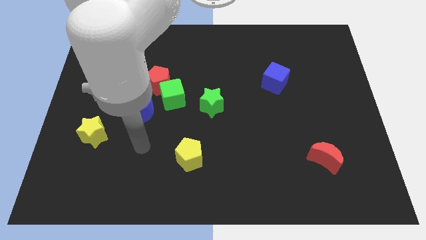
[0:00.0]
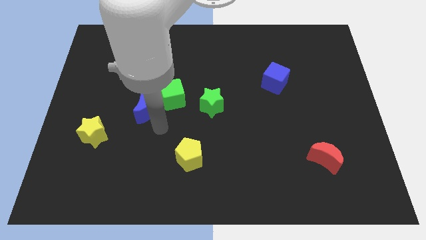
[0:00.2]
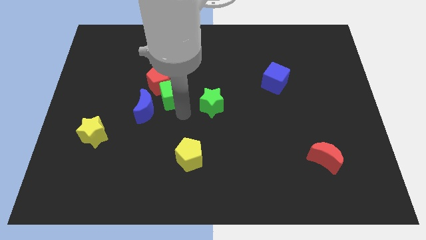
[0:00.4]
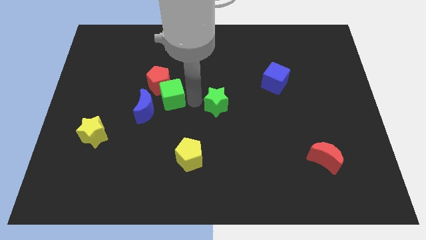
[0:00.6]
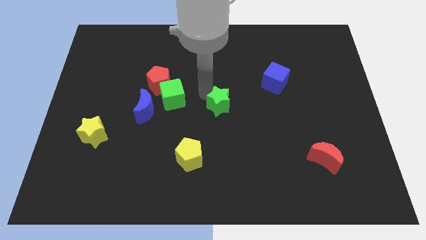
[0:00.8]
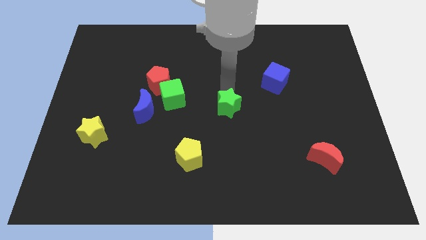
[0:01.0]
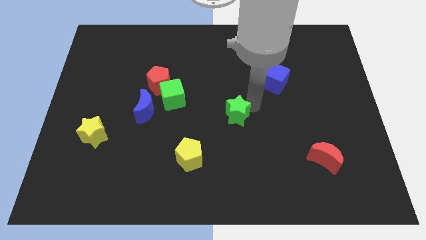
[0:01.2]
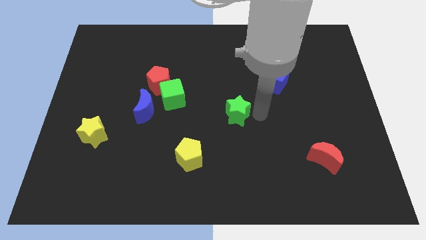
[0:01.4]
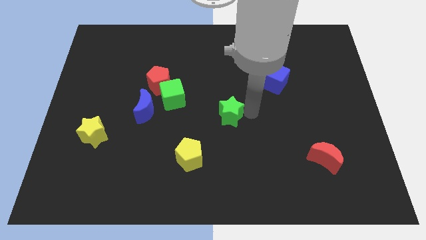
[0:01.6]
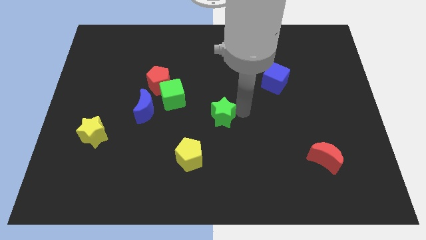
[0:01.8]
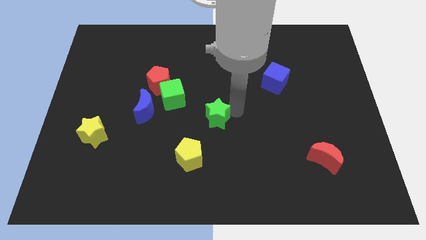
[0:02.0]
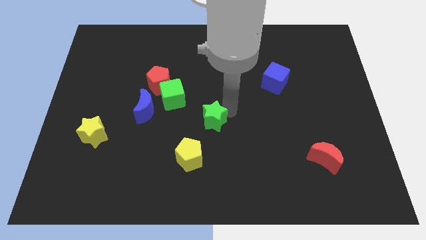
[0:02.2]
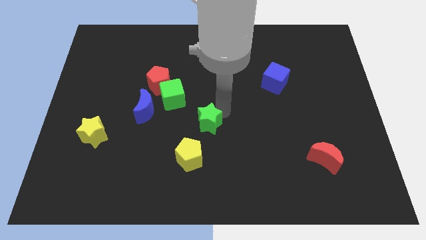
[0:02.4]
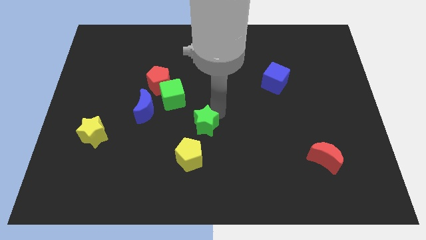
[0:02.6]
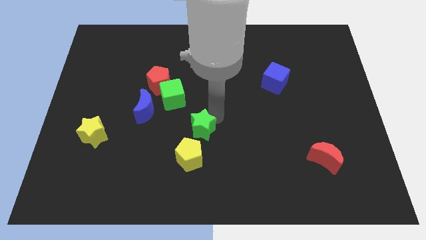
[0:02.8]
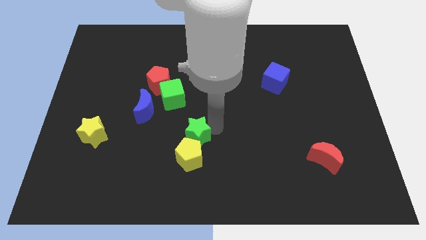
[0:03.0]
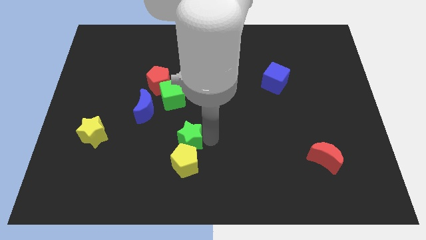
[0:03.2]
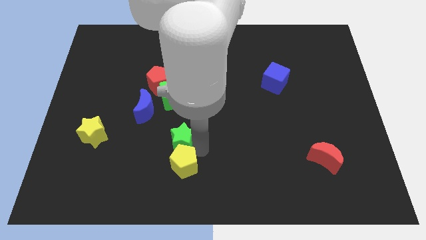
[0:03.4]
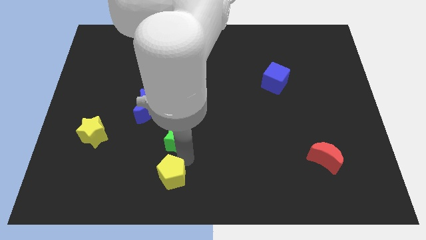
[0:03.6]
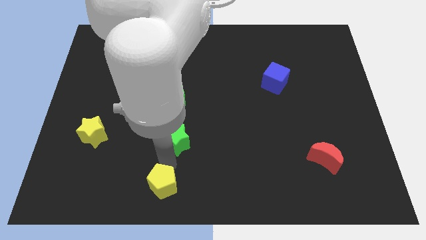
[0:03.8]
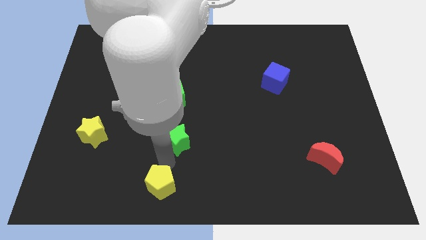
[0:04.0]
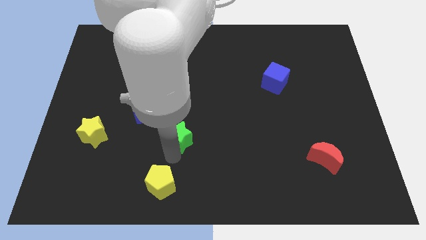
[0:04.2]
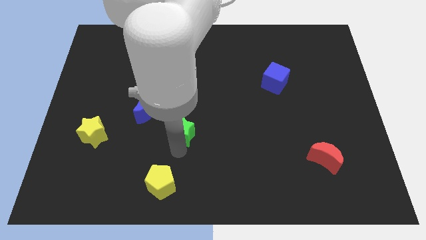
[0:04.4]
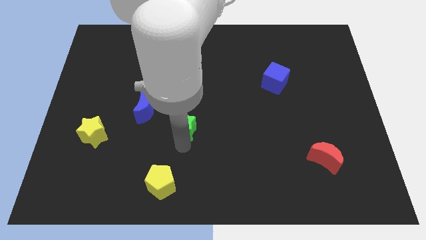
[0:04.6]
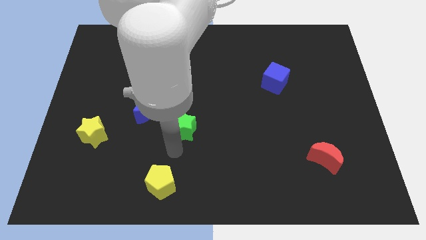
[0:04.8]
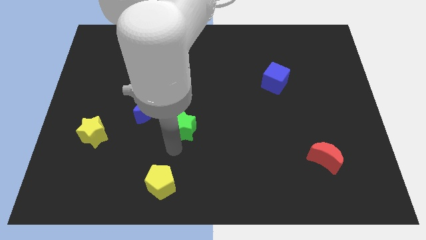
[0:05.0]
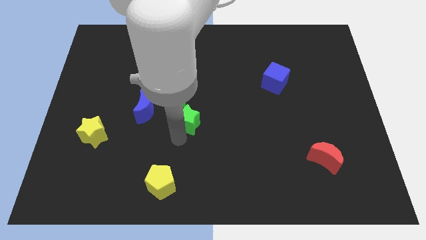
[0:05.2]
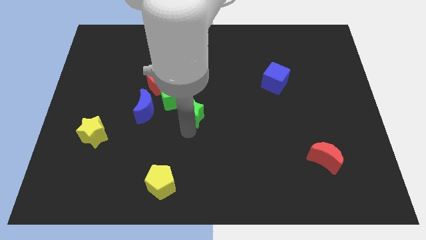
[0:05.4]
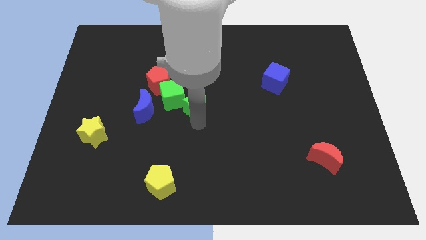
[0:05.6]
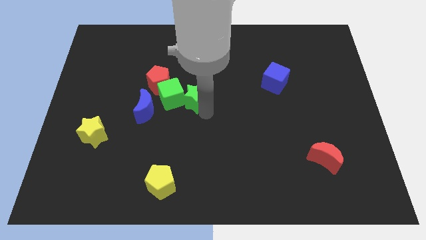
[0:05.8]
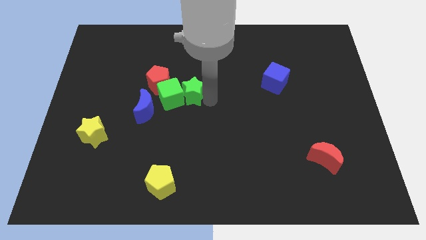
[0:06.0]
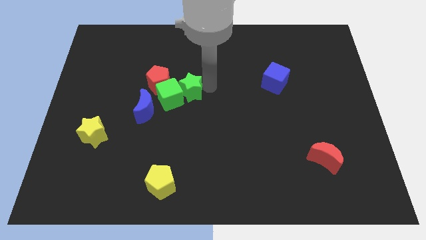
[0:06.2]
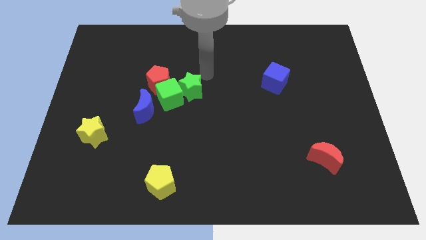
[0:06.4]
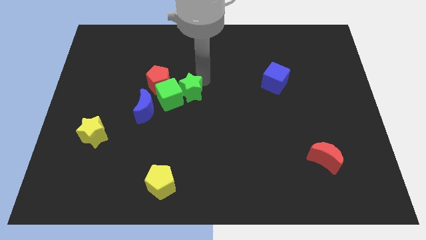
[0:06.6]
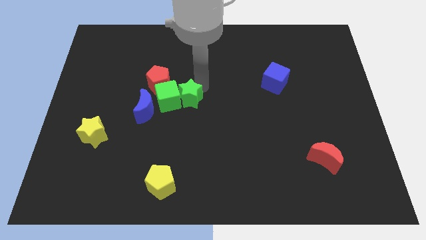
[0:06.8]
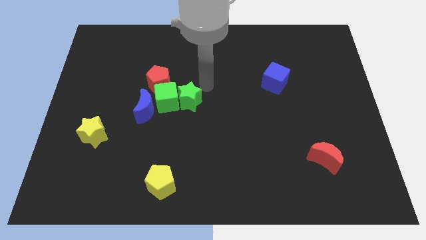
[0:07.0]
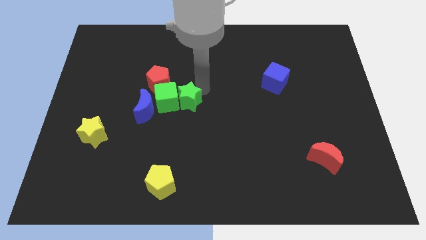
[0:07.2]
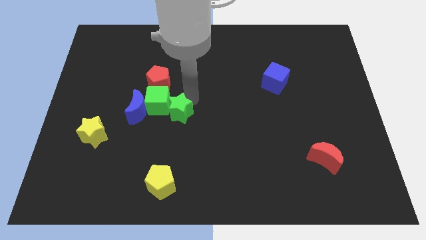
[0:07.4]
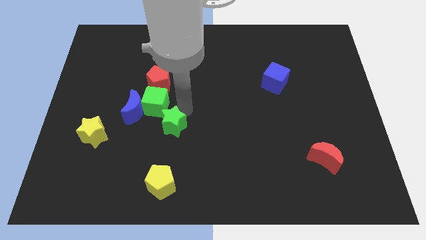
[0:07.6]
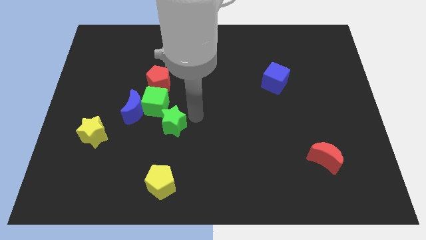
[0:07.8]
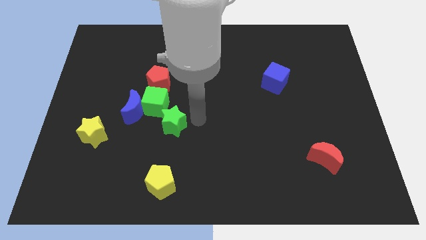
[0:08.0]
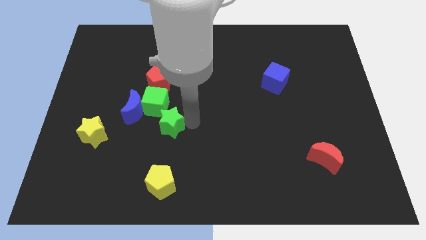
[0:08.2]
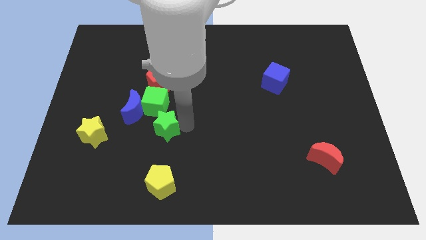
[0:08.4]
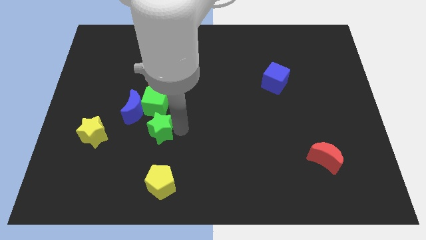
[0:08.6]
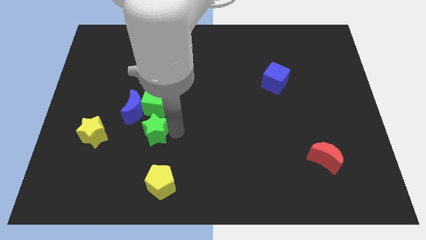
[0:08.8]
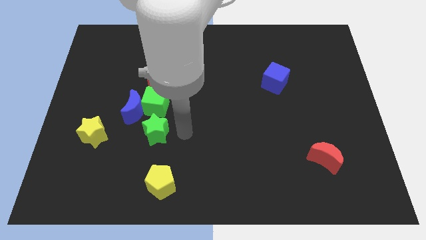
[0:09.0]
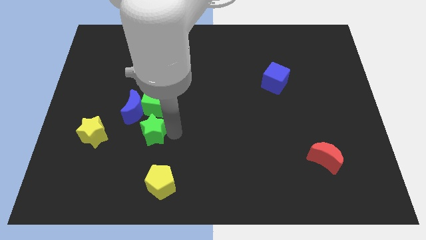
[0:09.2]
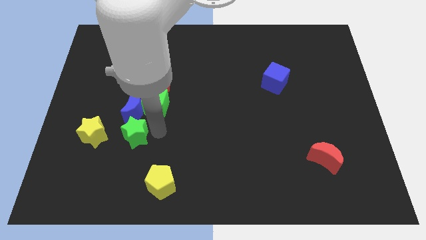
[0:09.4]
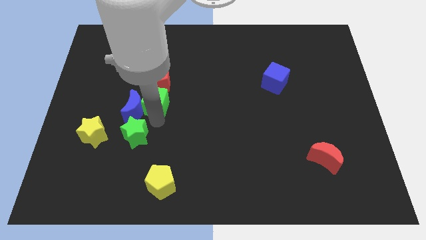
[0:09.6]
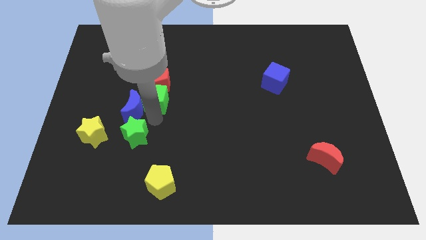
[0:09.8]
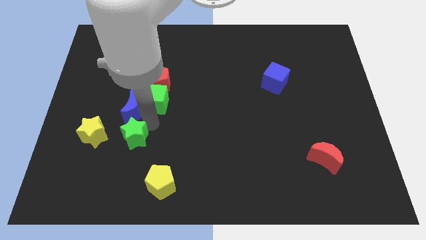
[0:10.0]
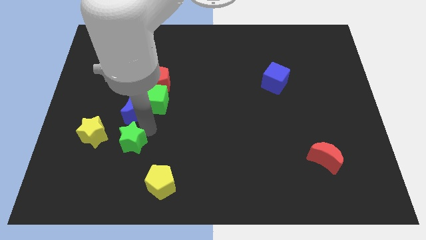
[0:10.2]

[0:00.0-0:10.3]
push the green star to the bottom right side of the yellow star

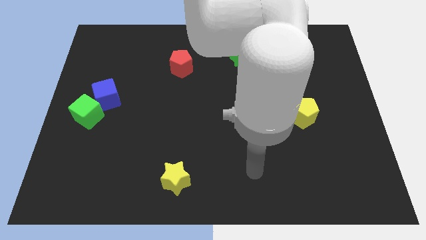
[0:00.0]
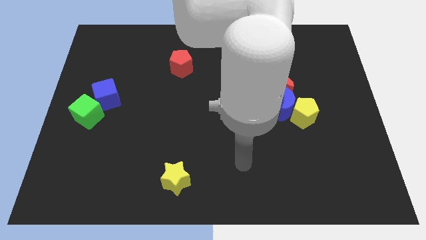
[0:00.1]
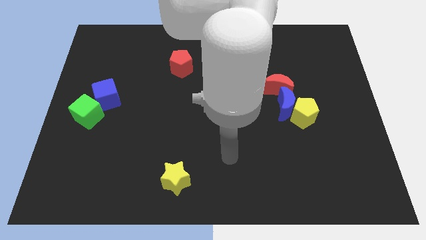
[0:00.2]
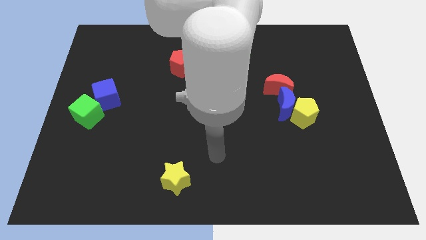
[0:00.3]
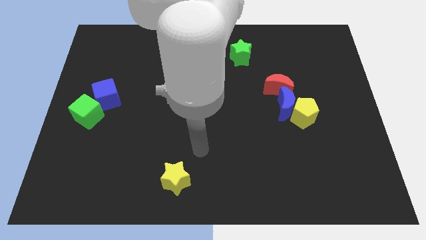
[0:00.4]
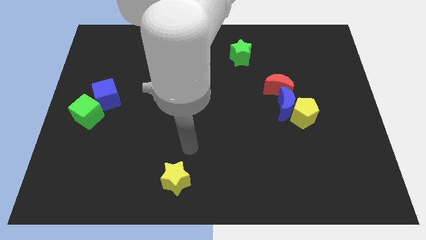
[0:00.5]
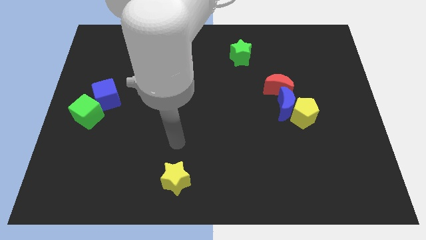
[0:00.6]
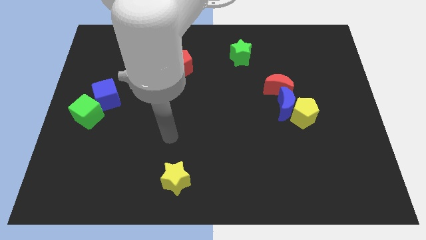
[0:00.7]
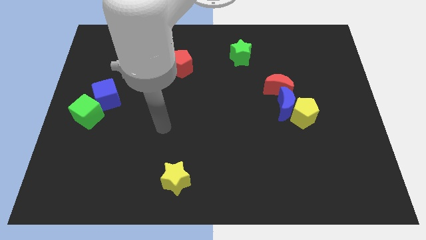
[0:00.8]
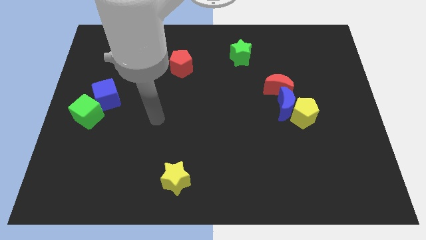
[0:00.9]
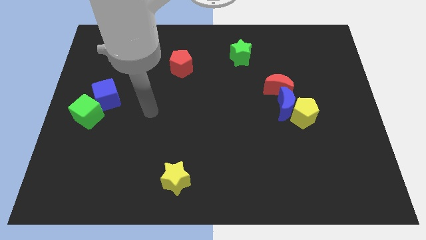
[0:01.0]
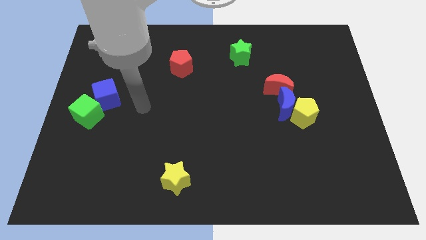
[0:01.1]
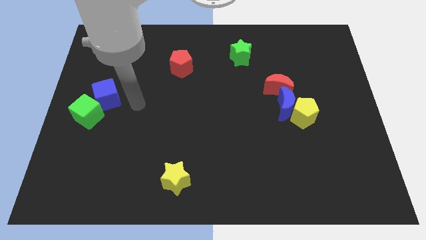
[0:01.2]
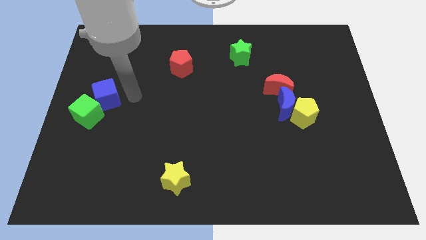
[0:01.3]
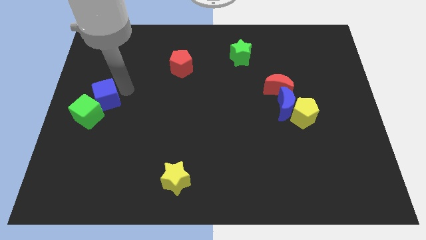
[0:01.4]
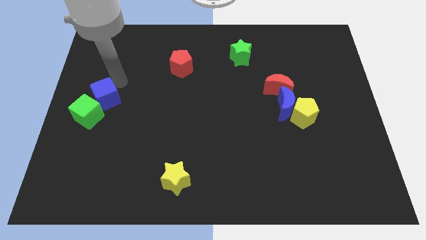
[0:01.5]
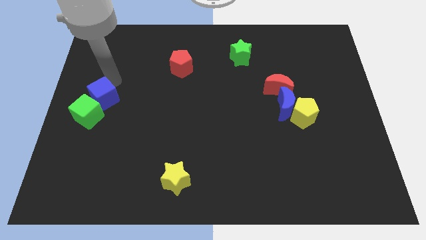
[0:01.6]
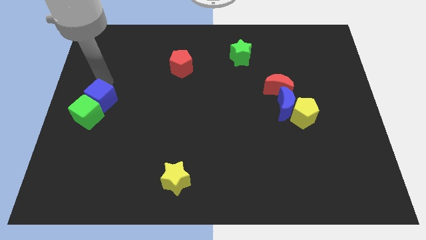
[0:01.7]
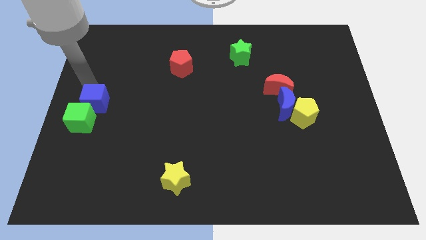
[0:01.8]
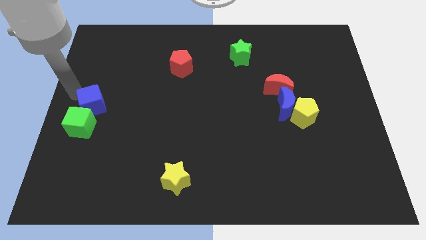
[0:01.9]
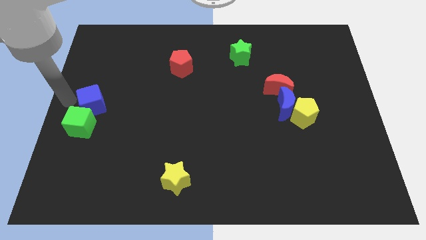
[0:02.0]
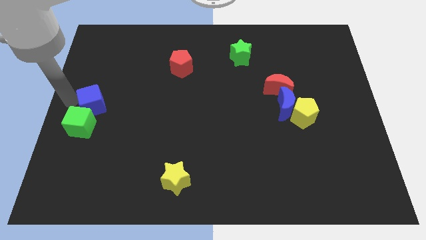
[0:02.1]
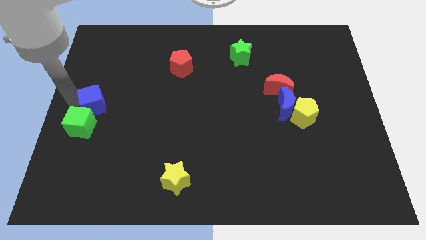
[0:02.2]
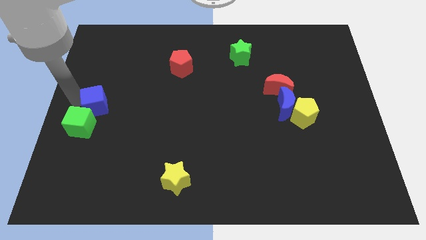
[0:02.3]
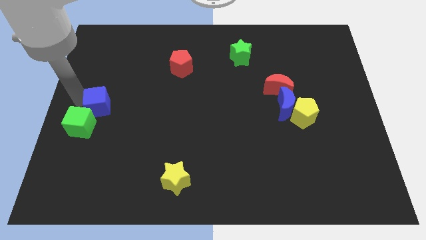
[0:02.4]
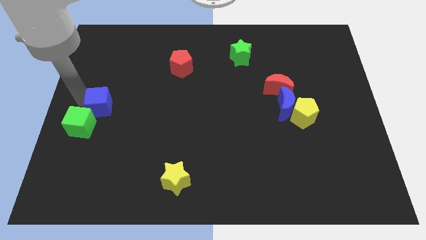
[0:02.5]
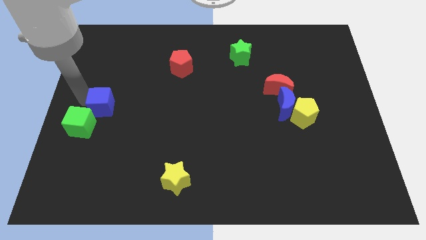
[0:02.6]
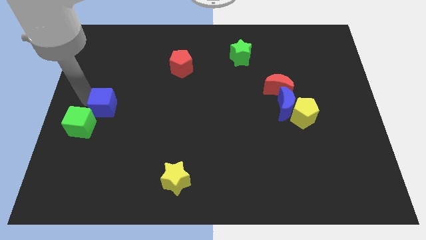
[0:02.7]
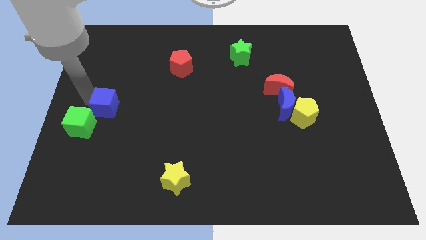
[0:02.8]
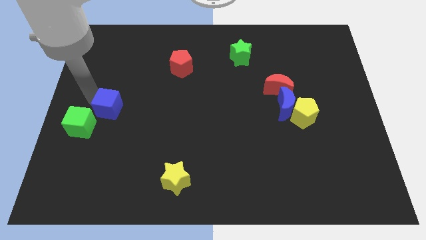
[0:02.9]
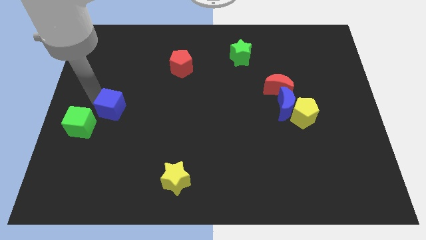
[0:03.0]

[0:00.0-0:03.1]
put the blue cube just right of the green cube
